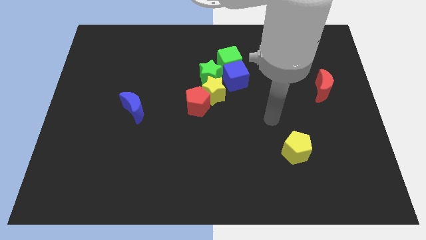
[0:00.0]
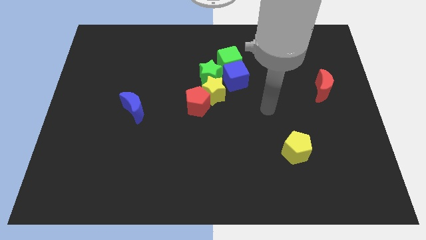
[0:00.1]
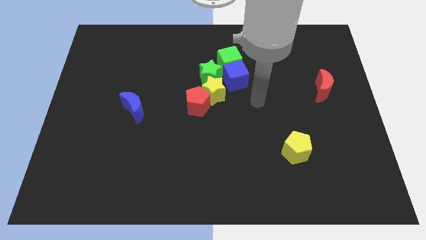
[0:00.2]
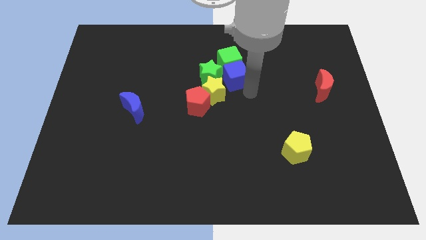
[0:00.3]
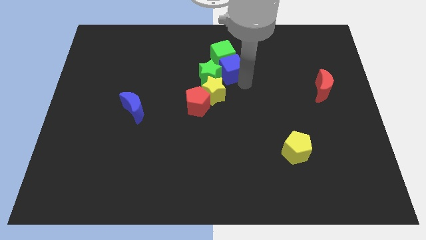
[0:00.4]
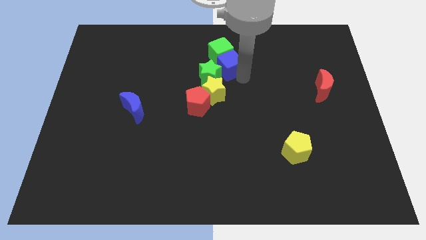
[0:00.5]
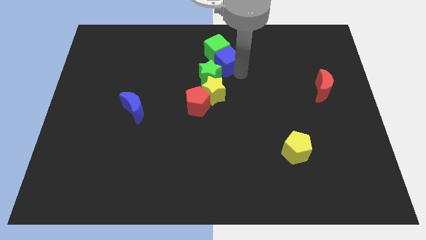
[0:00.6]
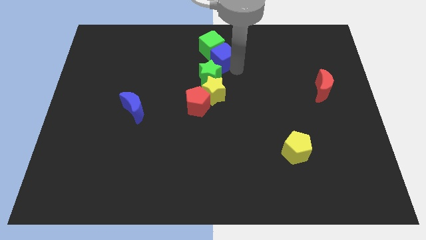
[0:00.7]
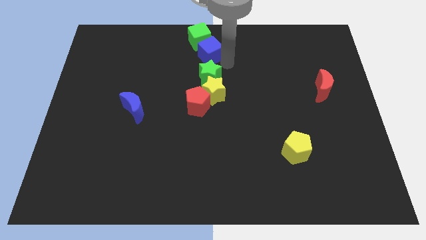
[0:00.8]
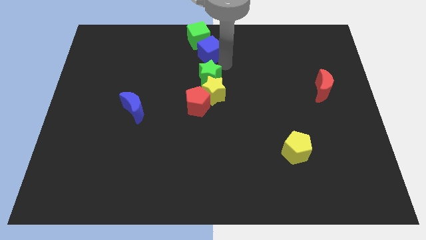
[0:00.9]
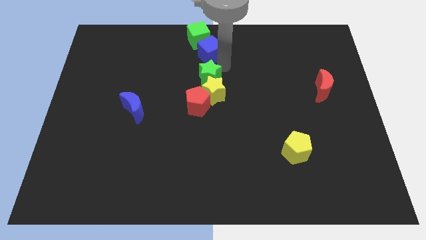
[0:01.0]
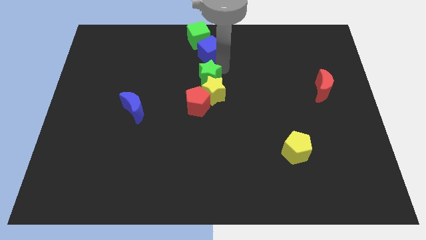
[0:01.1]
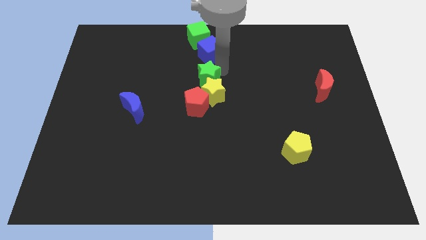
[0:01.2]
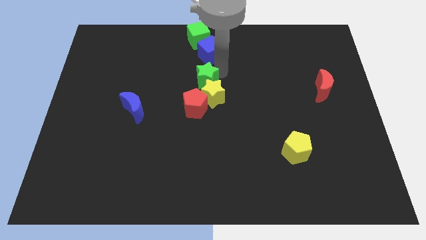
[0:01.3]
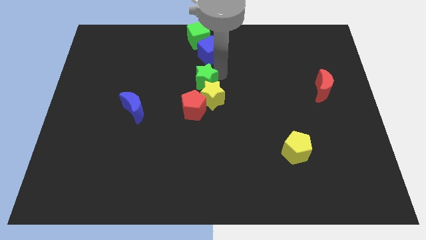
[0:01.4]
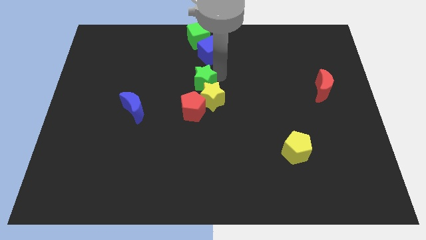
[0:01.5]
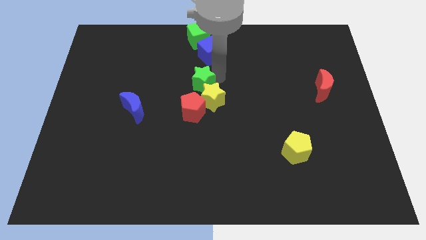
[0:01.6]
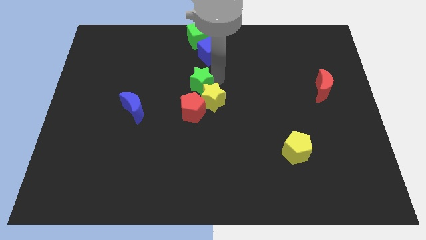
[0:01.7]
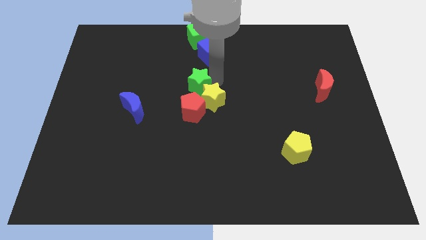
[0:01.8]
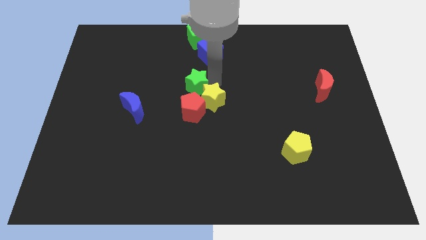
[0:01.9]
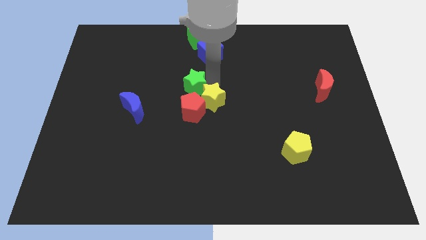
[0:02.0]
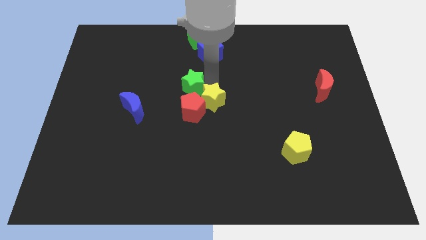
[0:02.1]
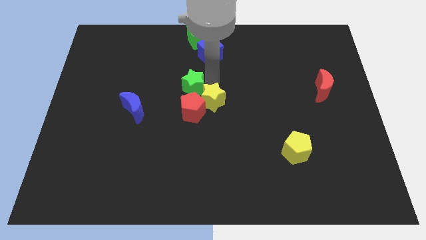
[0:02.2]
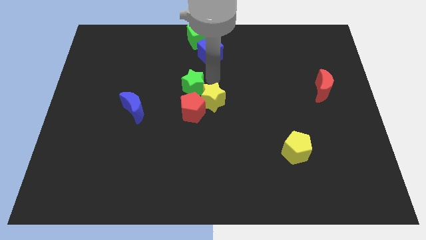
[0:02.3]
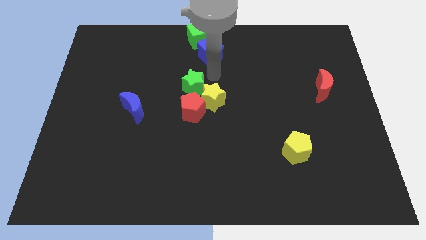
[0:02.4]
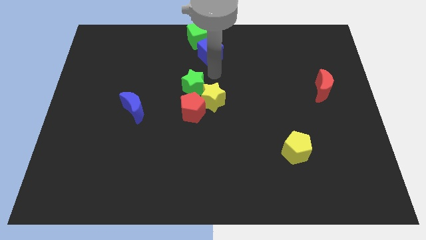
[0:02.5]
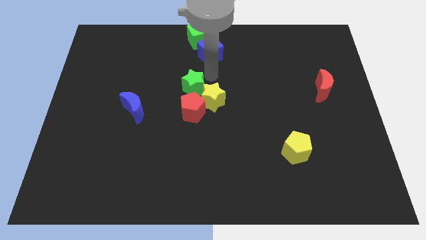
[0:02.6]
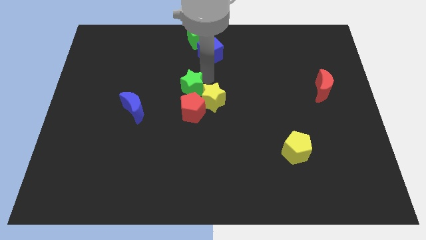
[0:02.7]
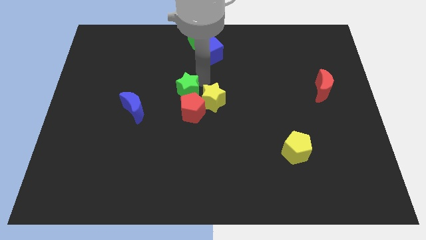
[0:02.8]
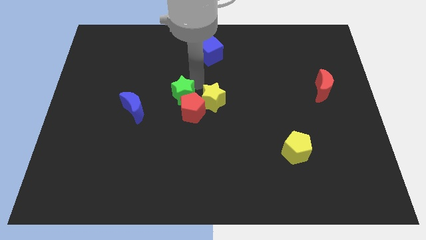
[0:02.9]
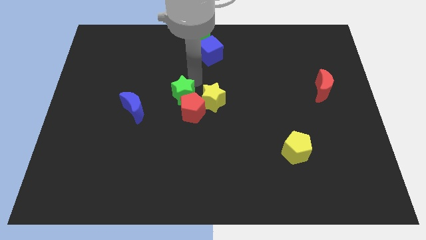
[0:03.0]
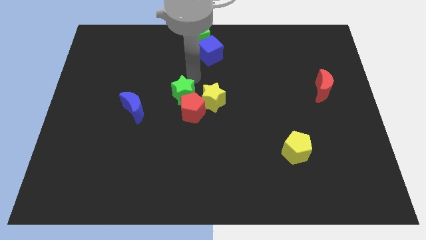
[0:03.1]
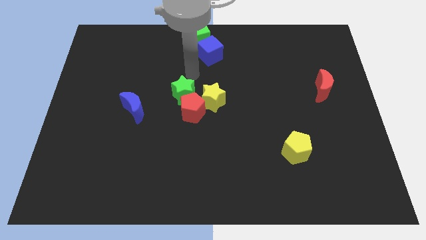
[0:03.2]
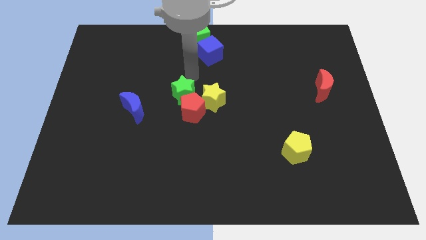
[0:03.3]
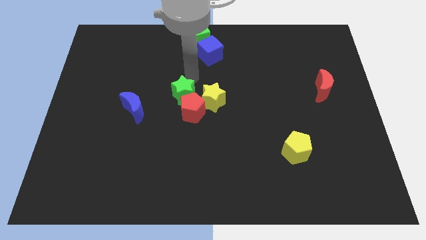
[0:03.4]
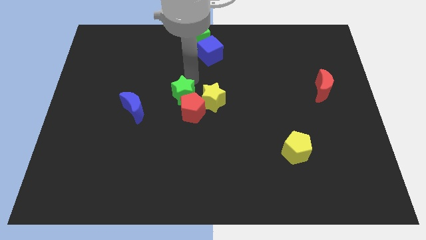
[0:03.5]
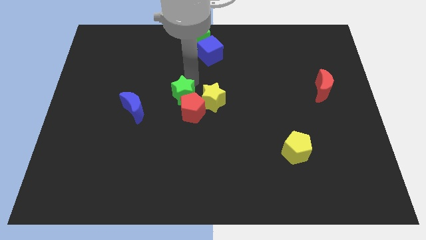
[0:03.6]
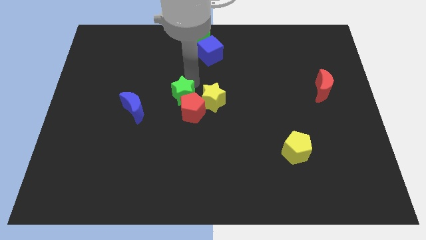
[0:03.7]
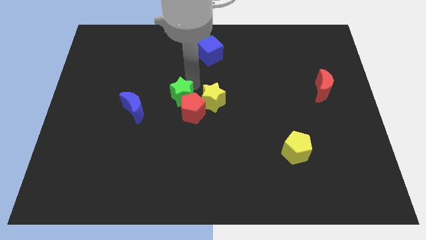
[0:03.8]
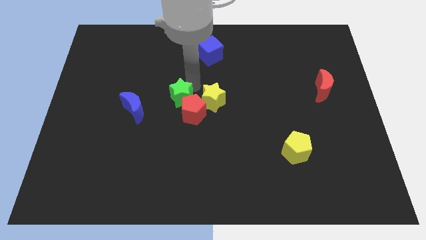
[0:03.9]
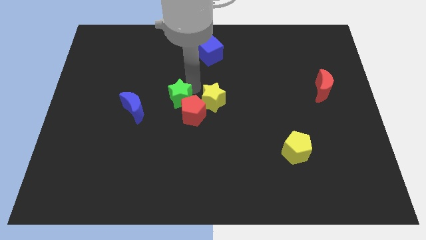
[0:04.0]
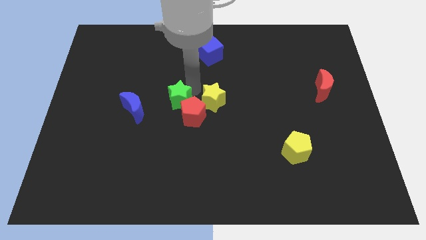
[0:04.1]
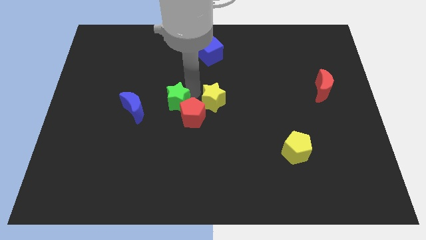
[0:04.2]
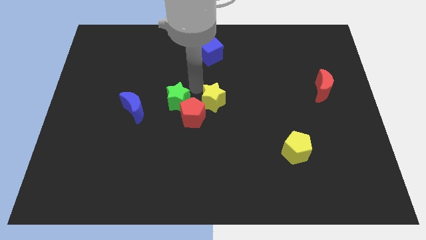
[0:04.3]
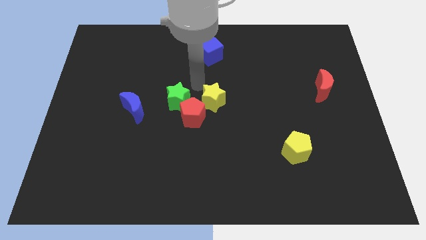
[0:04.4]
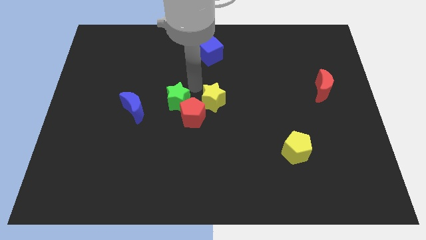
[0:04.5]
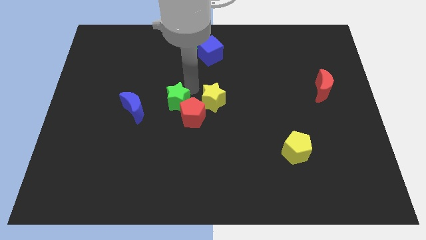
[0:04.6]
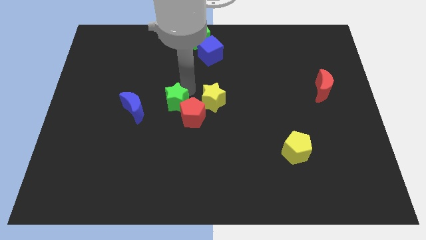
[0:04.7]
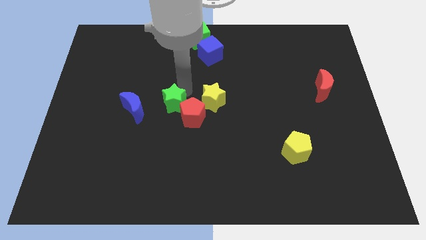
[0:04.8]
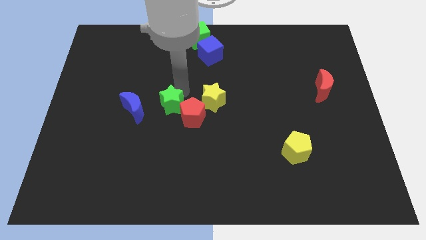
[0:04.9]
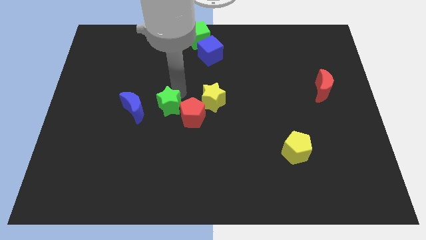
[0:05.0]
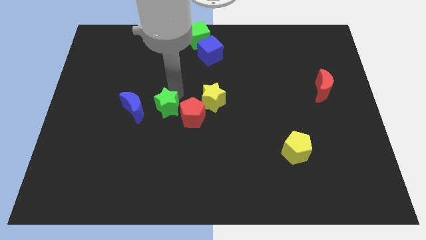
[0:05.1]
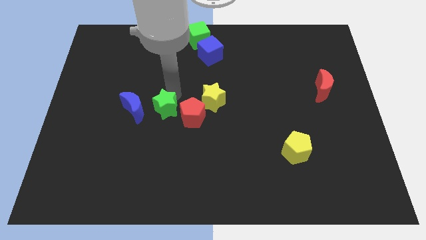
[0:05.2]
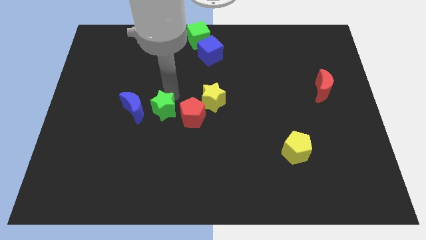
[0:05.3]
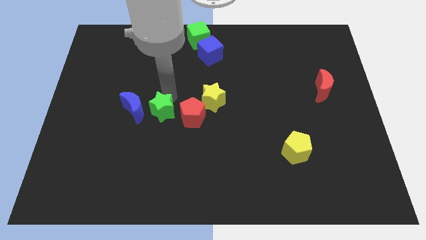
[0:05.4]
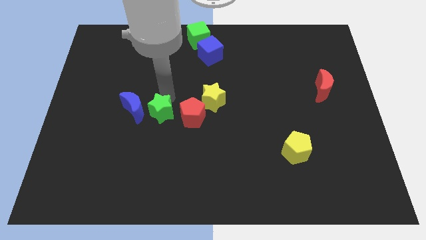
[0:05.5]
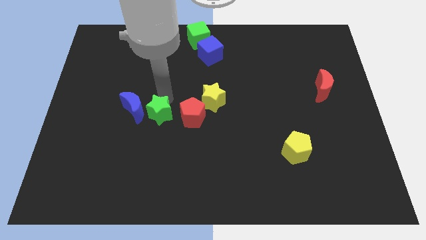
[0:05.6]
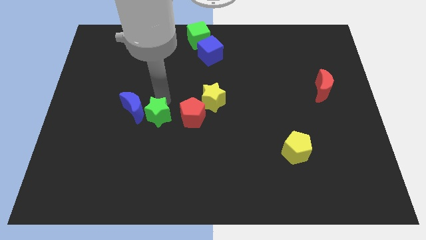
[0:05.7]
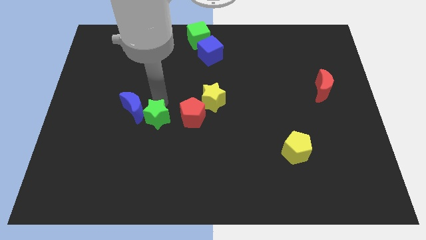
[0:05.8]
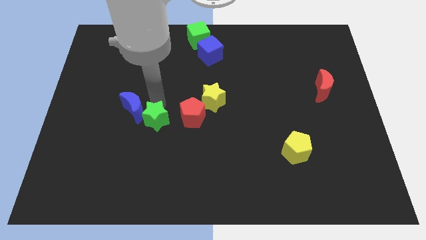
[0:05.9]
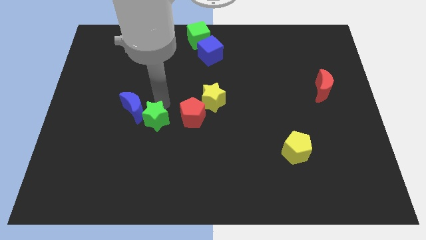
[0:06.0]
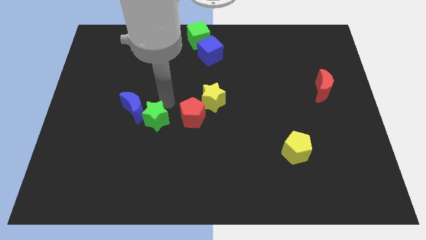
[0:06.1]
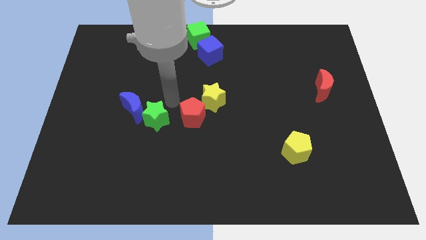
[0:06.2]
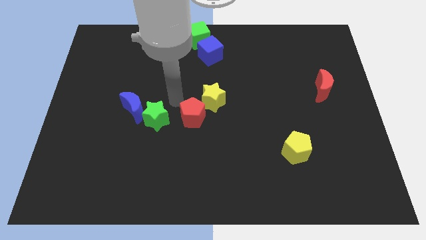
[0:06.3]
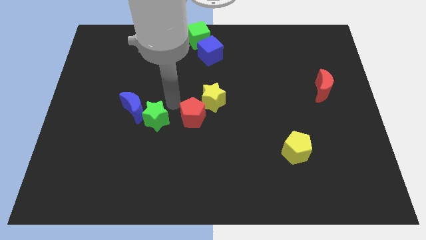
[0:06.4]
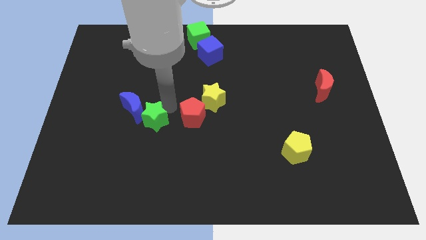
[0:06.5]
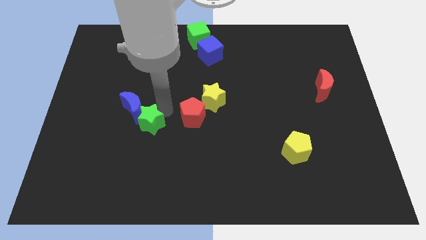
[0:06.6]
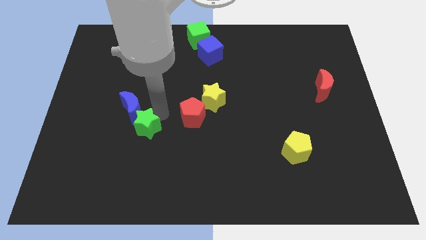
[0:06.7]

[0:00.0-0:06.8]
slide the green star down and then to the left

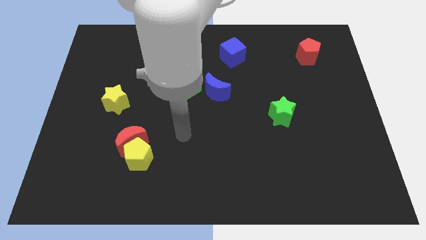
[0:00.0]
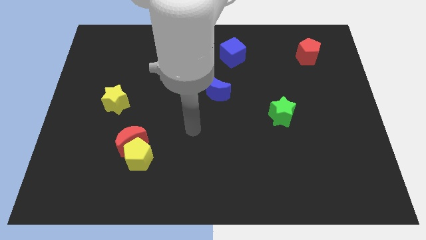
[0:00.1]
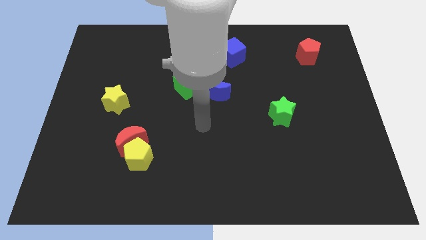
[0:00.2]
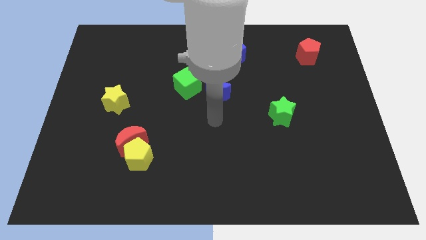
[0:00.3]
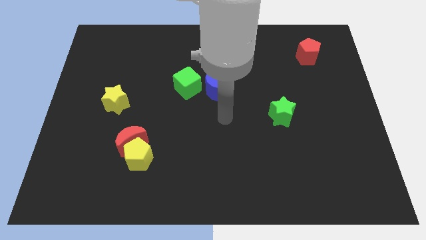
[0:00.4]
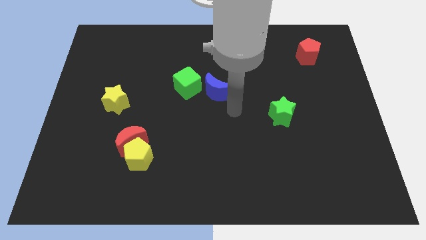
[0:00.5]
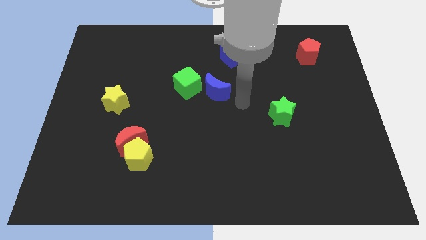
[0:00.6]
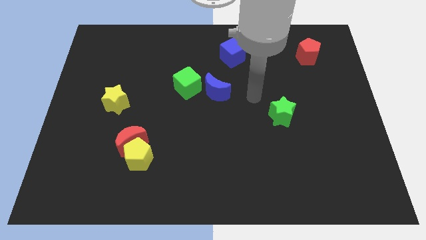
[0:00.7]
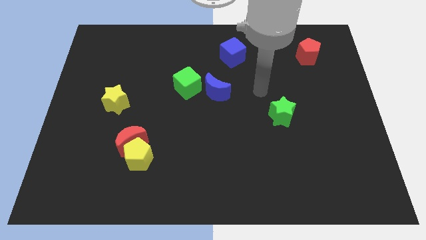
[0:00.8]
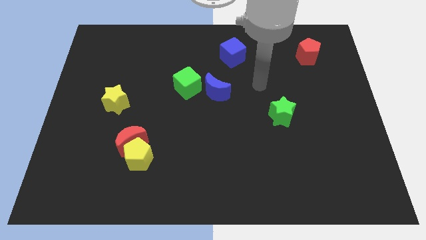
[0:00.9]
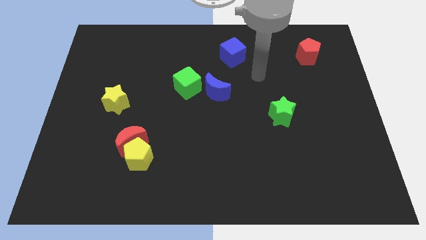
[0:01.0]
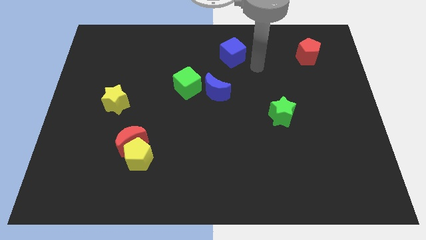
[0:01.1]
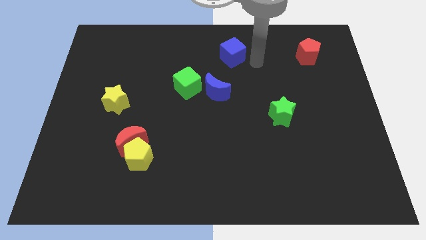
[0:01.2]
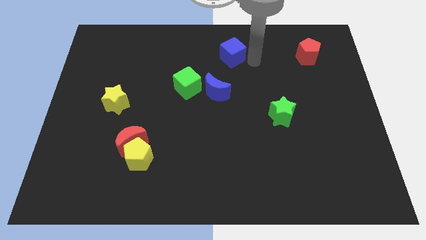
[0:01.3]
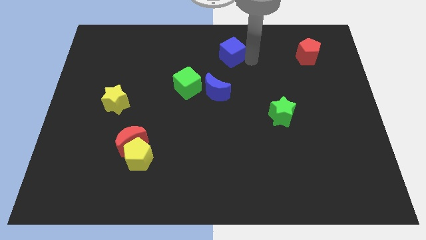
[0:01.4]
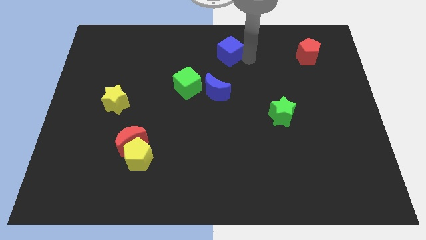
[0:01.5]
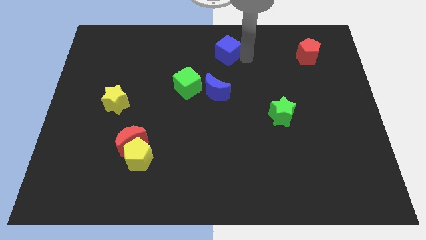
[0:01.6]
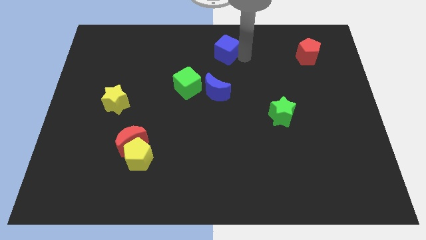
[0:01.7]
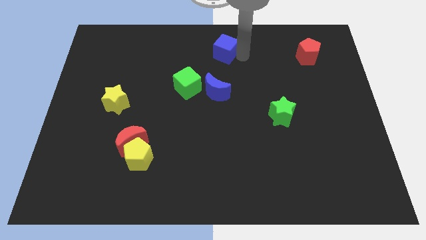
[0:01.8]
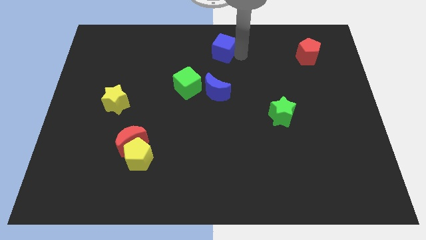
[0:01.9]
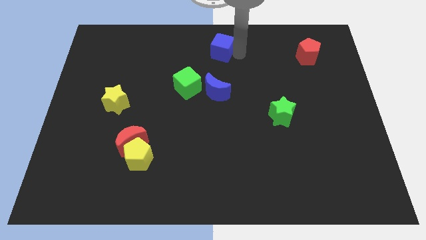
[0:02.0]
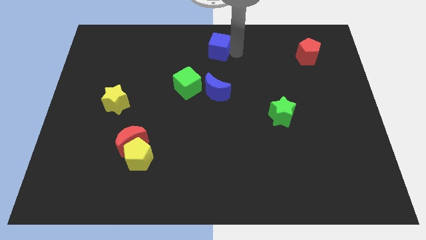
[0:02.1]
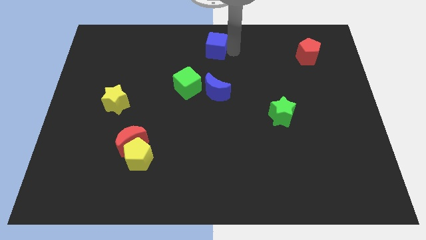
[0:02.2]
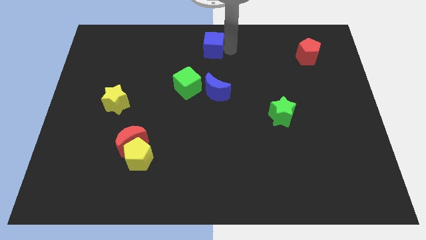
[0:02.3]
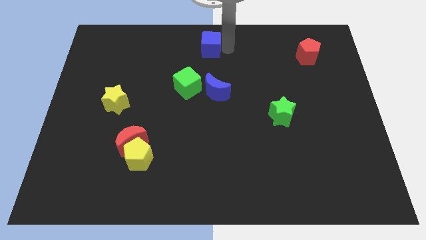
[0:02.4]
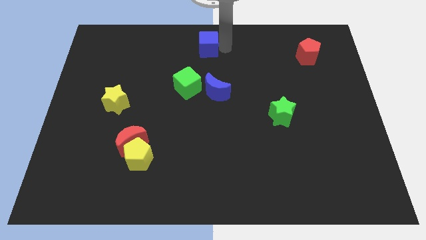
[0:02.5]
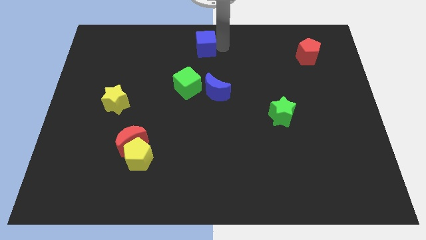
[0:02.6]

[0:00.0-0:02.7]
move the blue cube somewhat to the left
